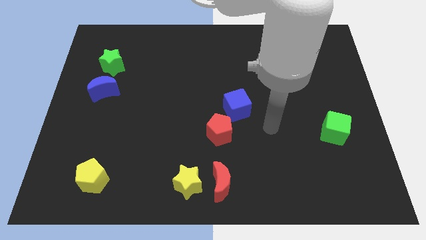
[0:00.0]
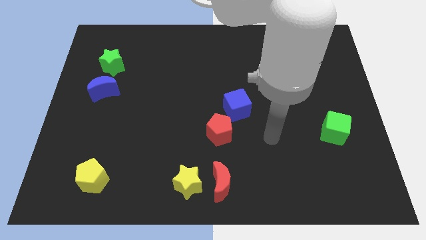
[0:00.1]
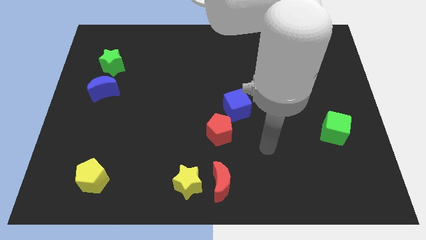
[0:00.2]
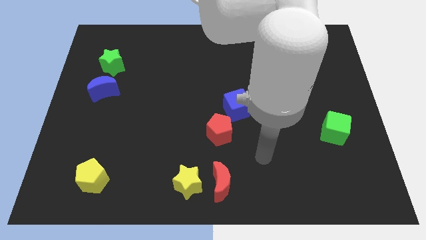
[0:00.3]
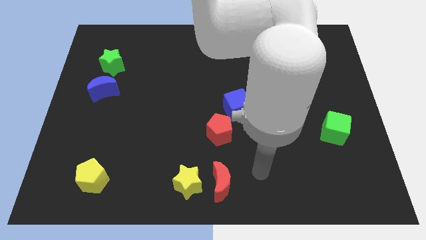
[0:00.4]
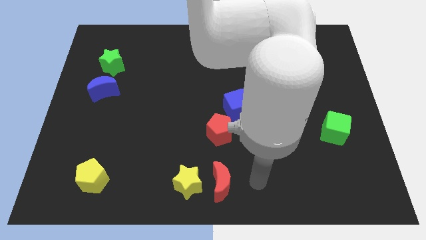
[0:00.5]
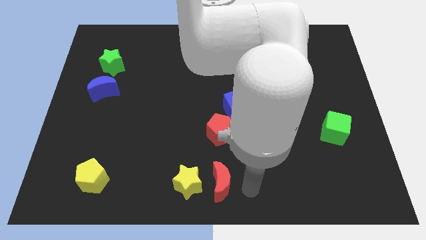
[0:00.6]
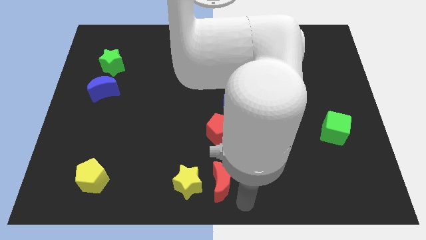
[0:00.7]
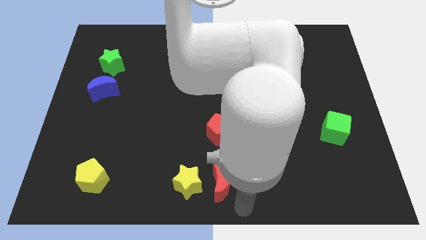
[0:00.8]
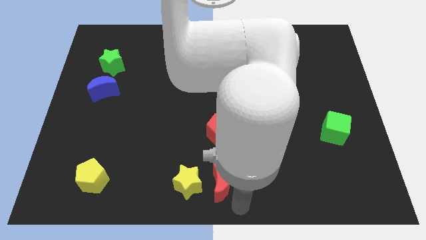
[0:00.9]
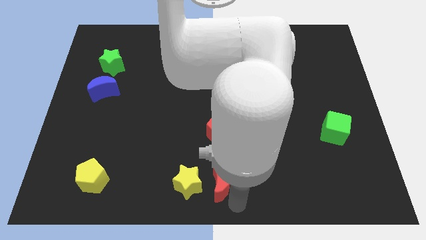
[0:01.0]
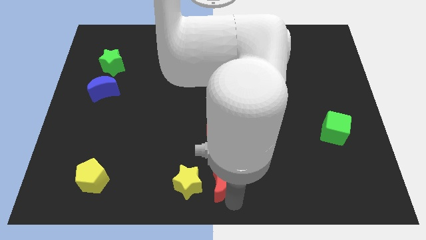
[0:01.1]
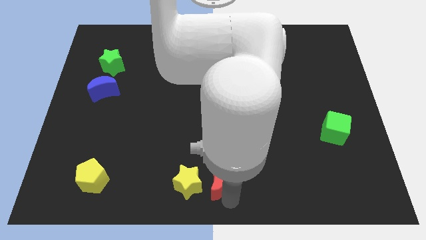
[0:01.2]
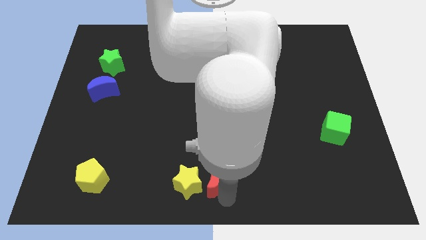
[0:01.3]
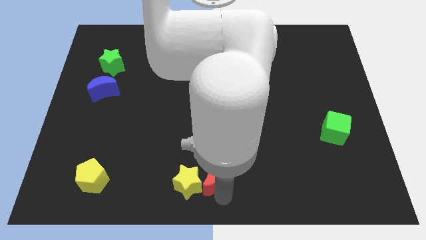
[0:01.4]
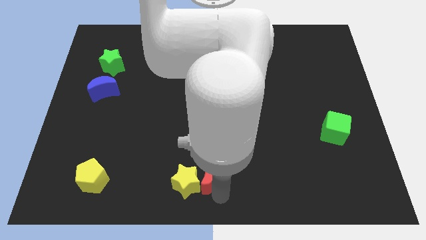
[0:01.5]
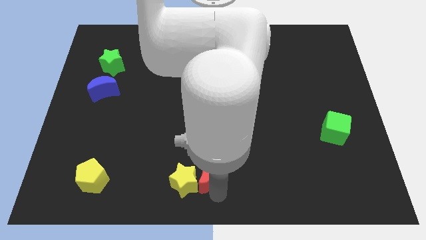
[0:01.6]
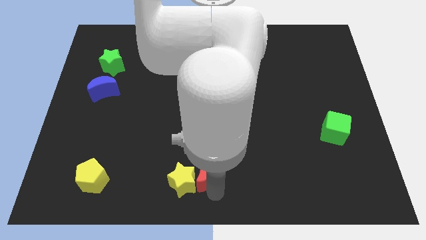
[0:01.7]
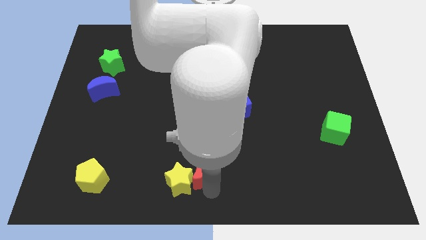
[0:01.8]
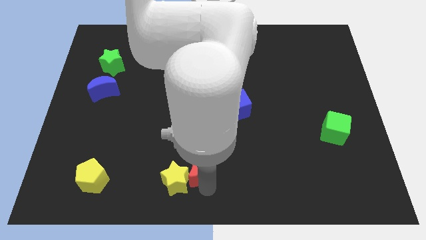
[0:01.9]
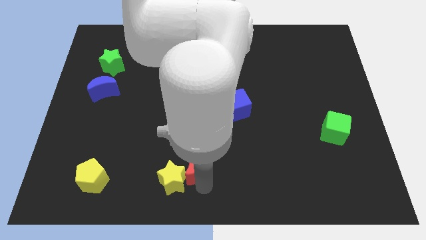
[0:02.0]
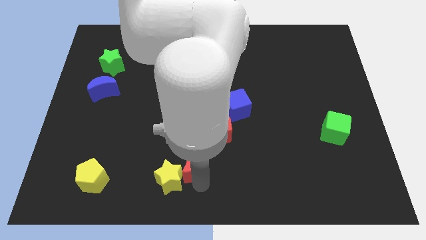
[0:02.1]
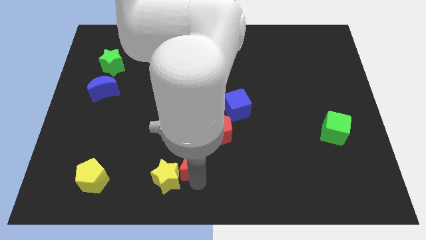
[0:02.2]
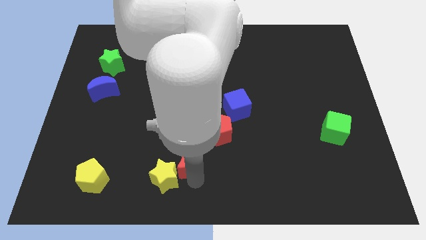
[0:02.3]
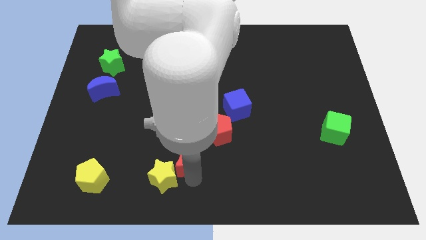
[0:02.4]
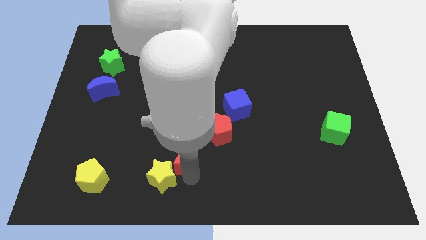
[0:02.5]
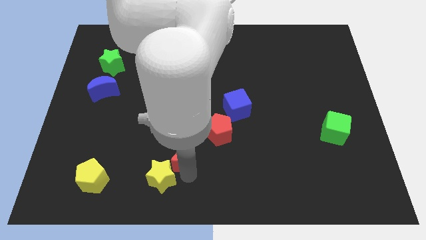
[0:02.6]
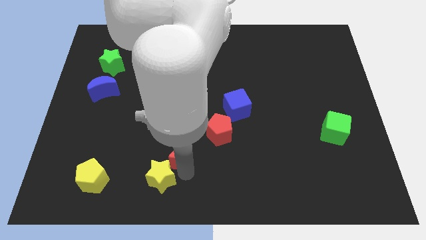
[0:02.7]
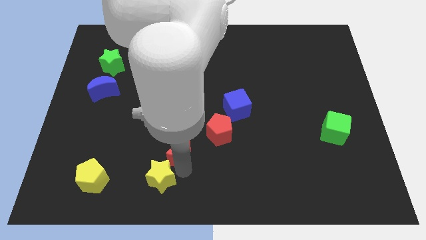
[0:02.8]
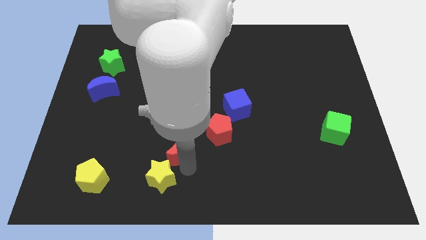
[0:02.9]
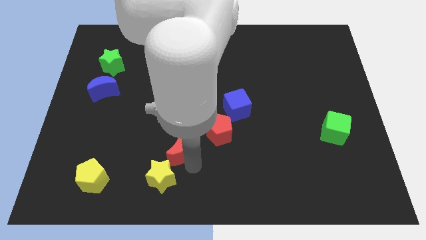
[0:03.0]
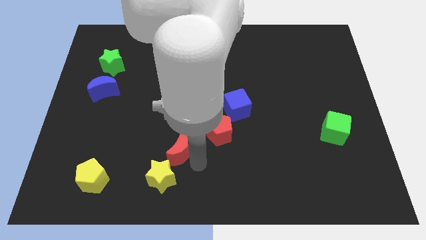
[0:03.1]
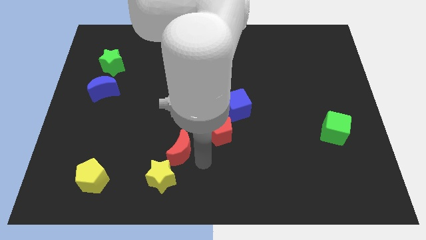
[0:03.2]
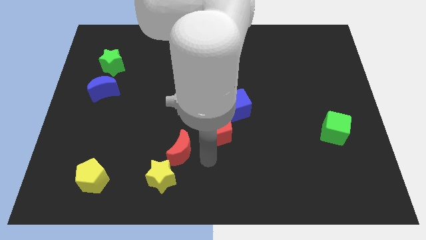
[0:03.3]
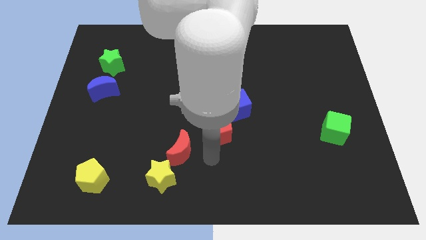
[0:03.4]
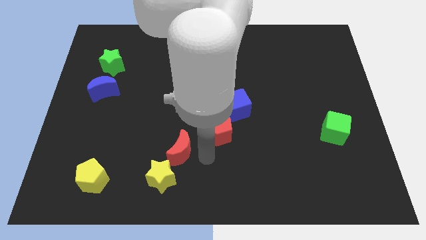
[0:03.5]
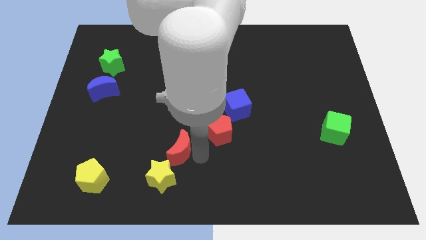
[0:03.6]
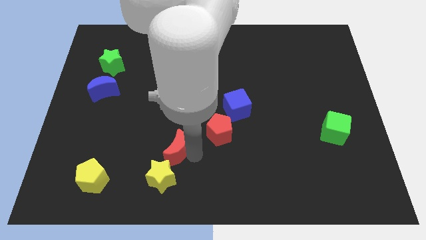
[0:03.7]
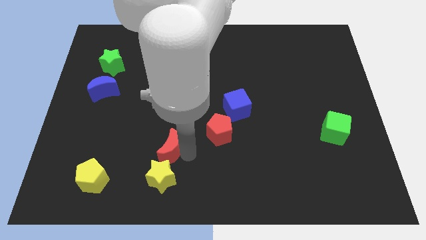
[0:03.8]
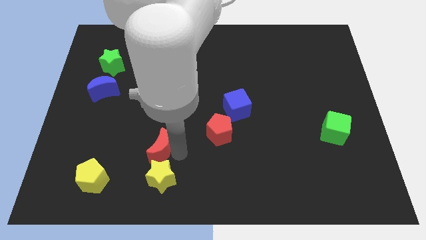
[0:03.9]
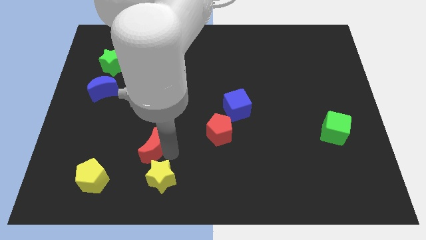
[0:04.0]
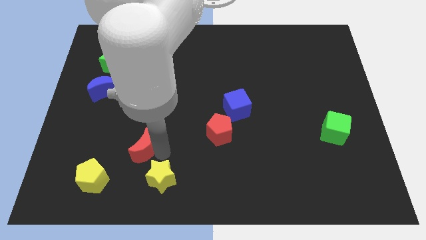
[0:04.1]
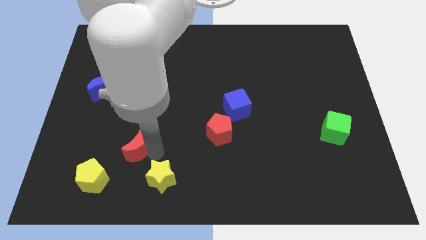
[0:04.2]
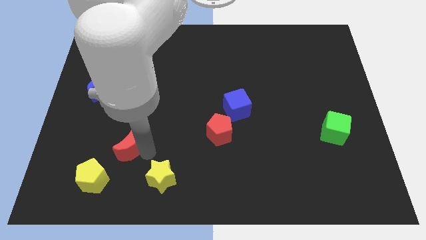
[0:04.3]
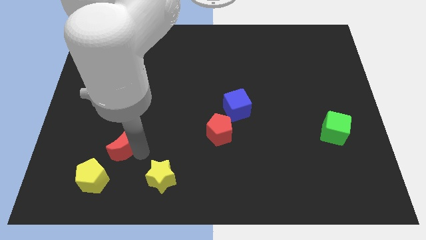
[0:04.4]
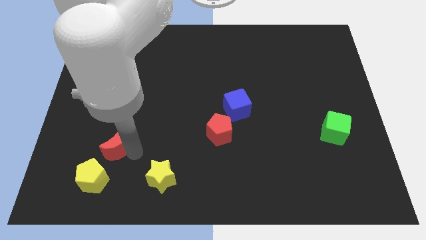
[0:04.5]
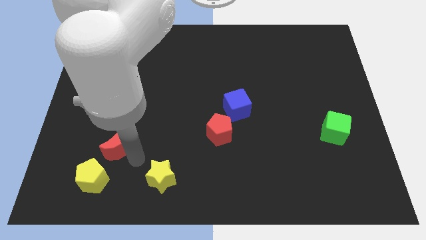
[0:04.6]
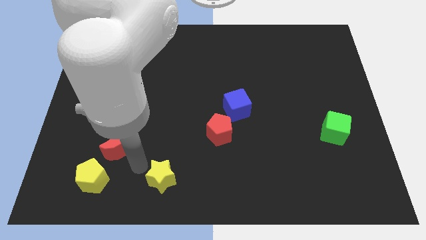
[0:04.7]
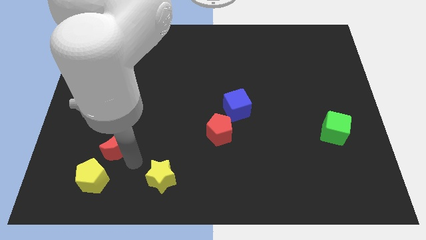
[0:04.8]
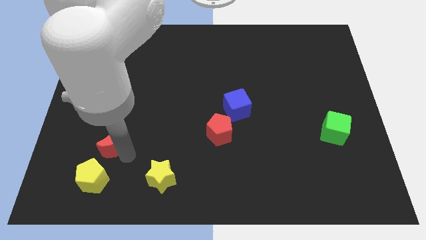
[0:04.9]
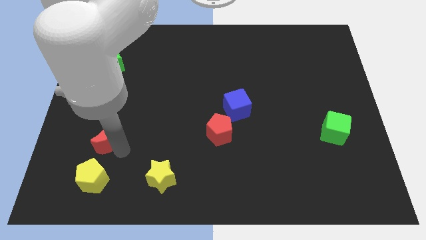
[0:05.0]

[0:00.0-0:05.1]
put the red moon to the bottom of the blue moon

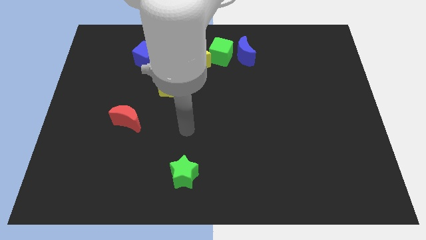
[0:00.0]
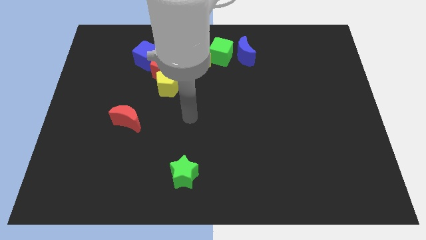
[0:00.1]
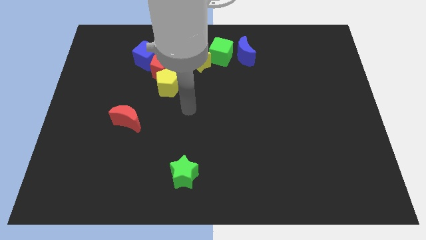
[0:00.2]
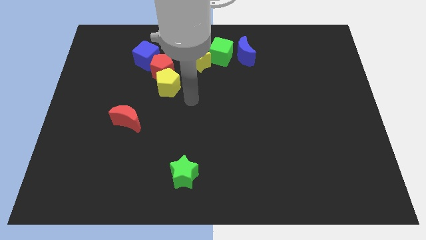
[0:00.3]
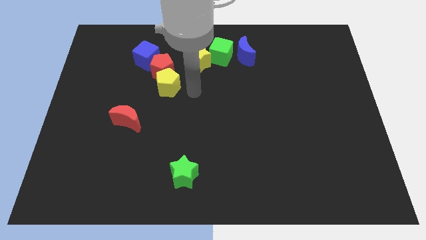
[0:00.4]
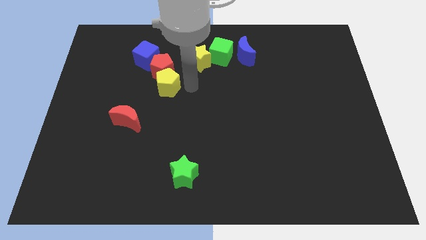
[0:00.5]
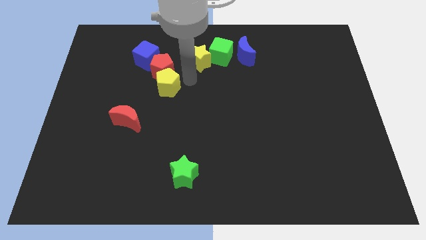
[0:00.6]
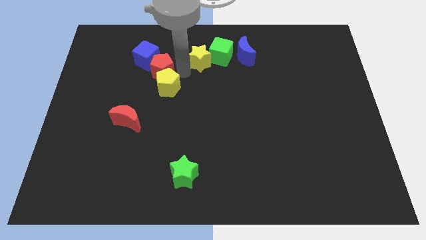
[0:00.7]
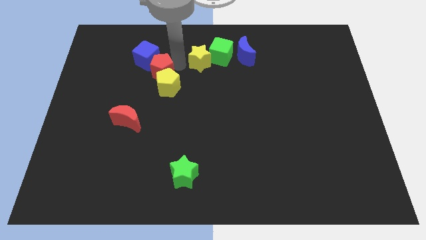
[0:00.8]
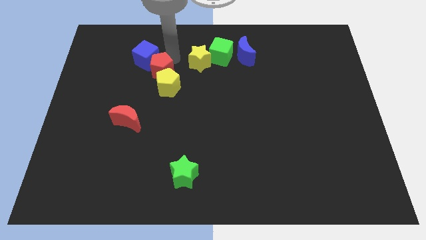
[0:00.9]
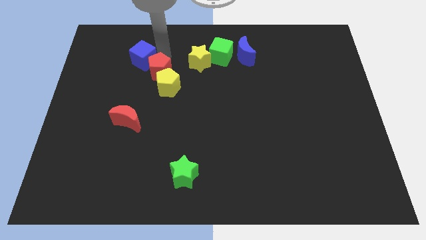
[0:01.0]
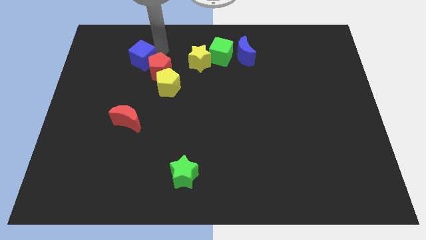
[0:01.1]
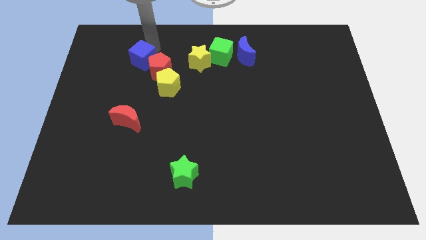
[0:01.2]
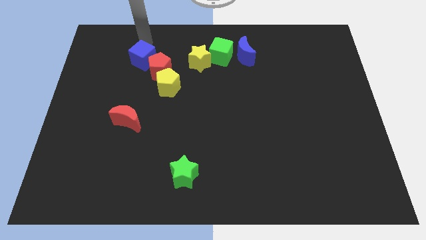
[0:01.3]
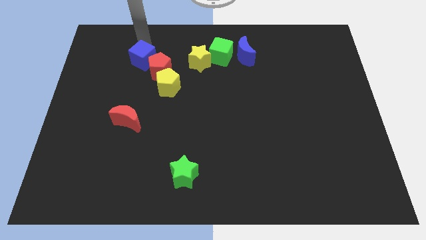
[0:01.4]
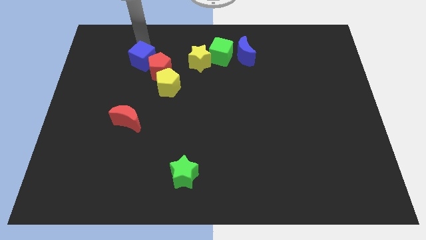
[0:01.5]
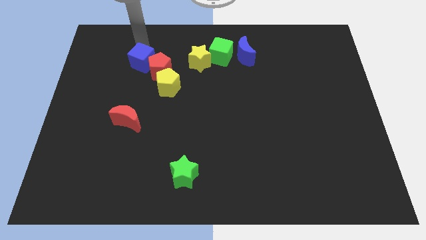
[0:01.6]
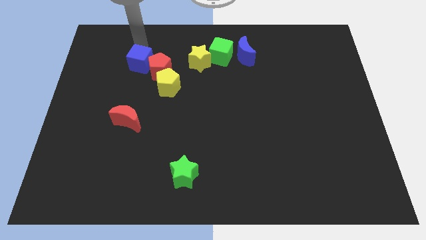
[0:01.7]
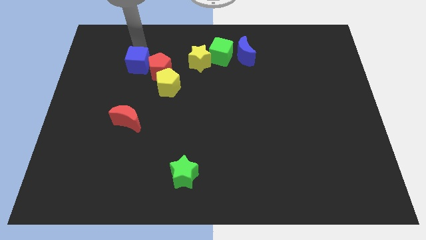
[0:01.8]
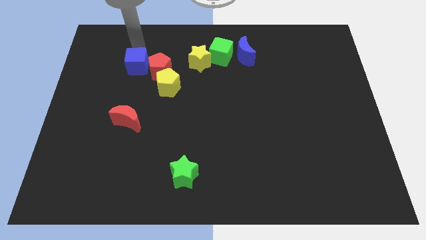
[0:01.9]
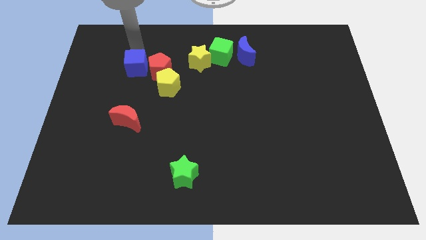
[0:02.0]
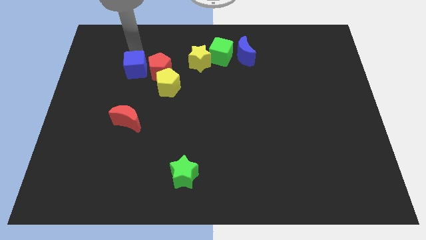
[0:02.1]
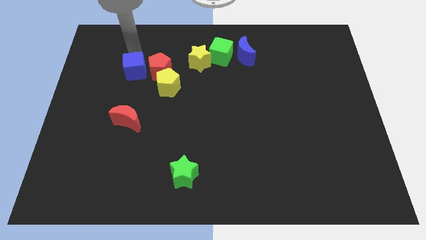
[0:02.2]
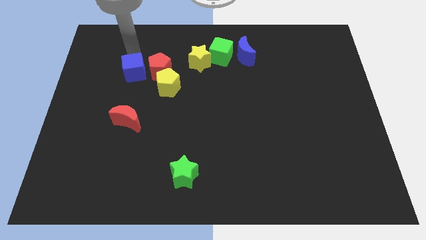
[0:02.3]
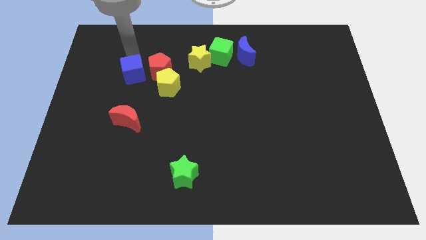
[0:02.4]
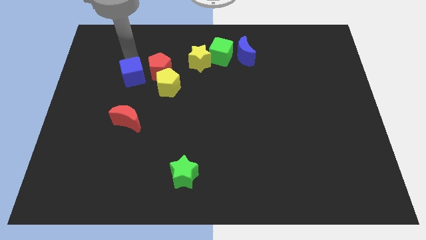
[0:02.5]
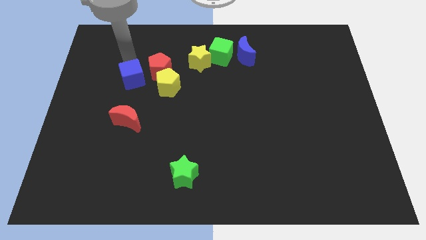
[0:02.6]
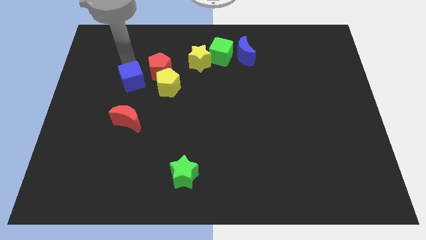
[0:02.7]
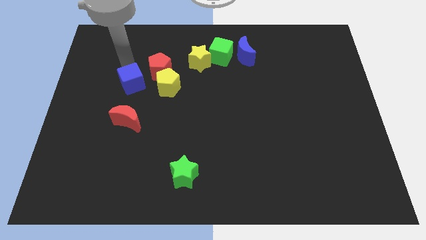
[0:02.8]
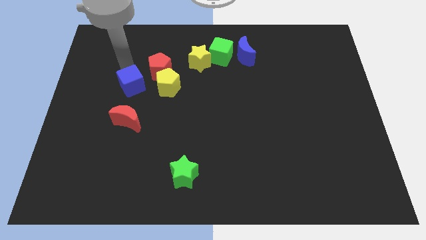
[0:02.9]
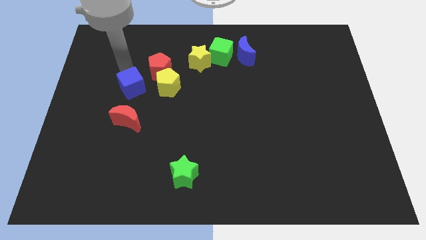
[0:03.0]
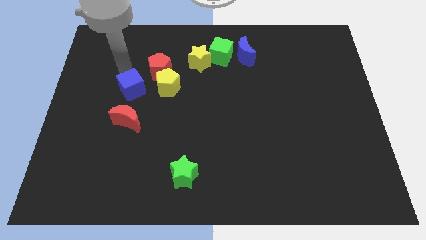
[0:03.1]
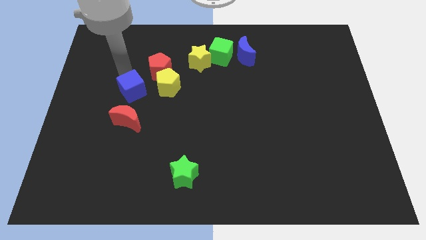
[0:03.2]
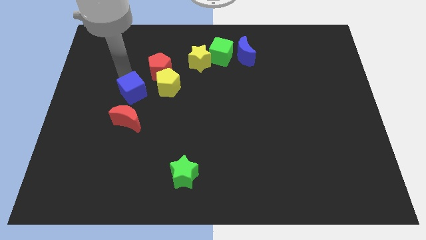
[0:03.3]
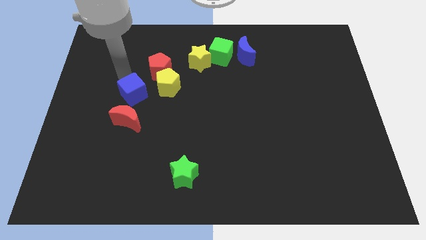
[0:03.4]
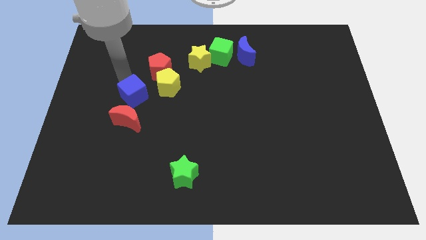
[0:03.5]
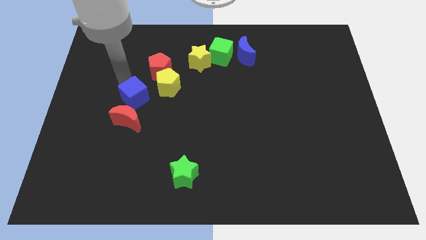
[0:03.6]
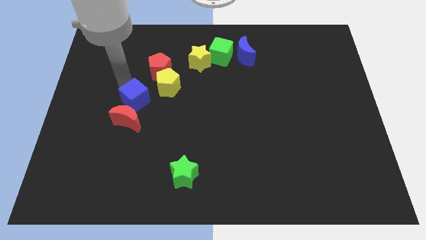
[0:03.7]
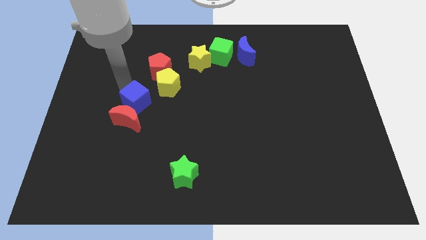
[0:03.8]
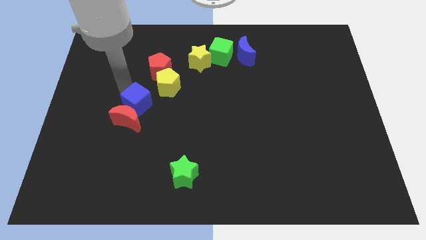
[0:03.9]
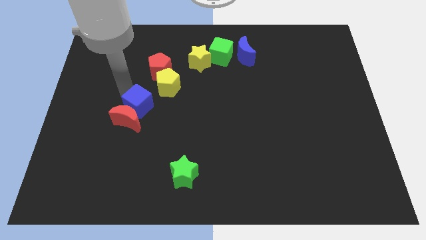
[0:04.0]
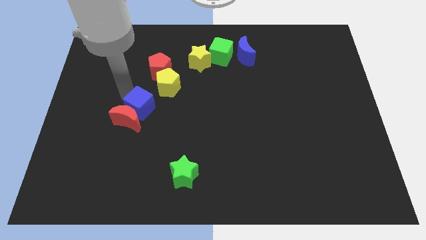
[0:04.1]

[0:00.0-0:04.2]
move the blue cube to the right side of the red moon
